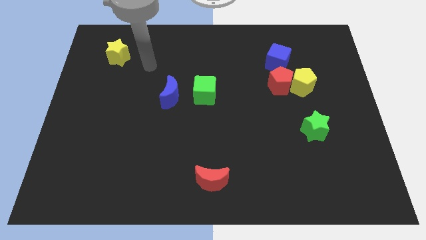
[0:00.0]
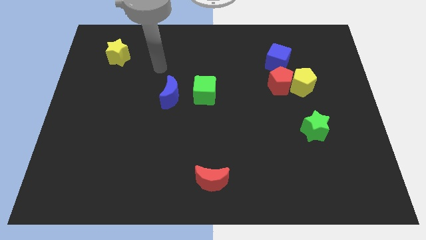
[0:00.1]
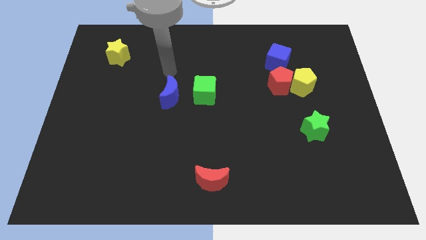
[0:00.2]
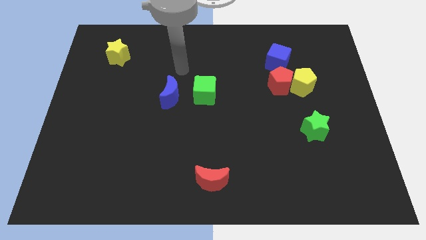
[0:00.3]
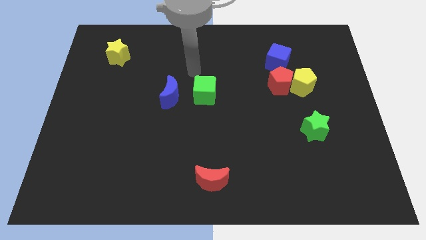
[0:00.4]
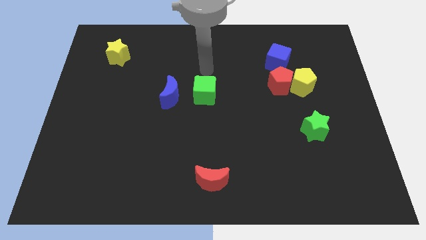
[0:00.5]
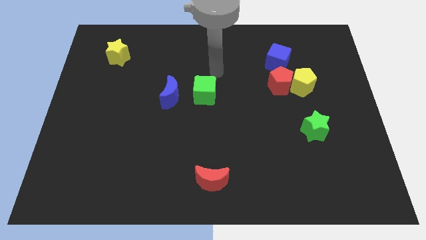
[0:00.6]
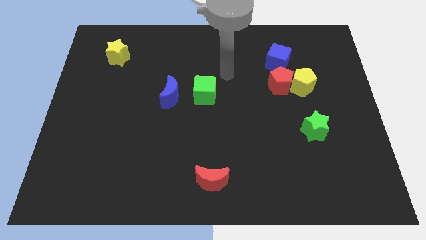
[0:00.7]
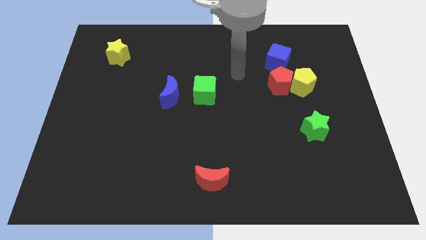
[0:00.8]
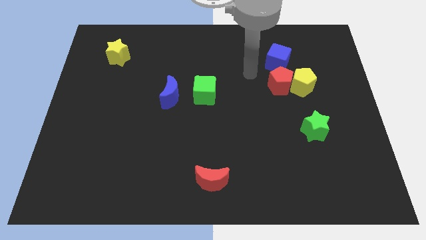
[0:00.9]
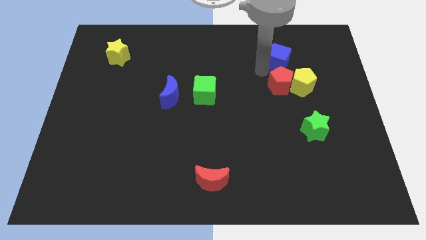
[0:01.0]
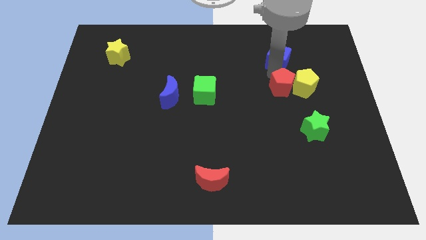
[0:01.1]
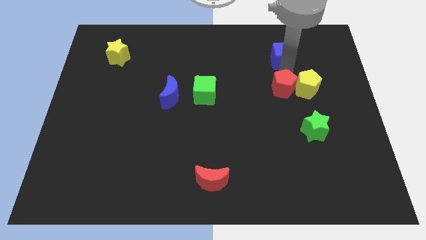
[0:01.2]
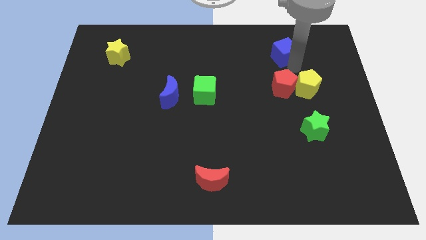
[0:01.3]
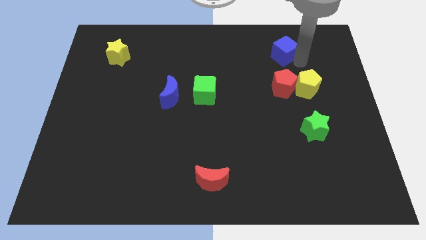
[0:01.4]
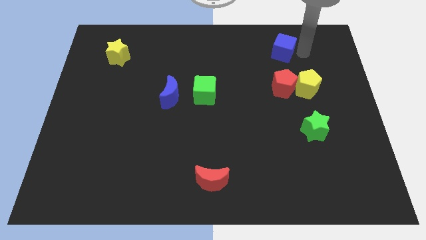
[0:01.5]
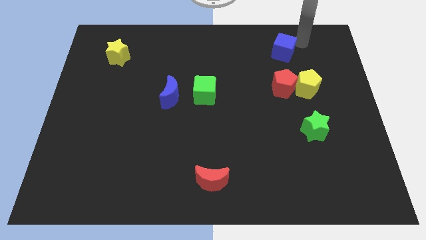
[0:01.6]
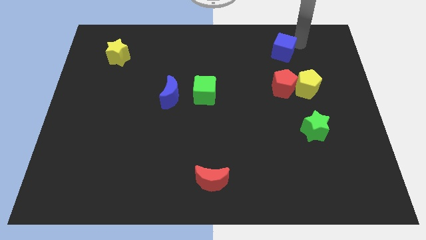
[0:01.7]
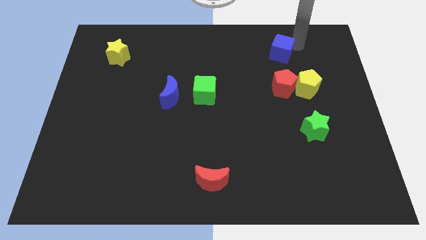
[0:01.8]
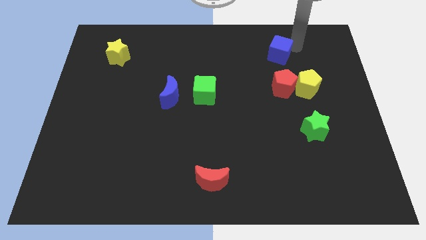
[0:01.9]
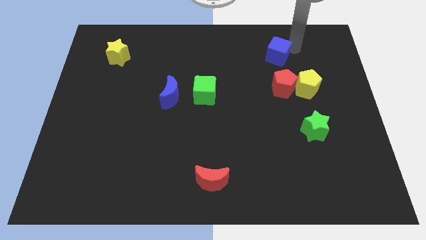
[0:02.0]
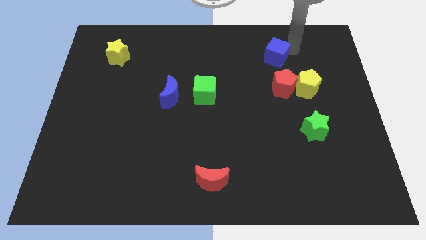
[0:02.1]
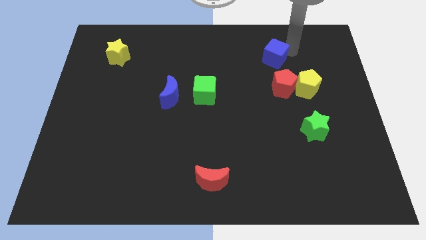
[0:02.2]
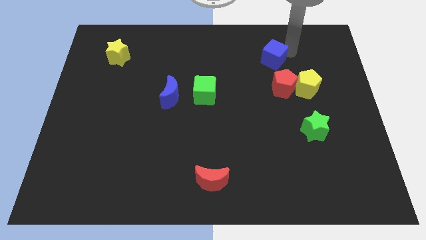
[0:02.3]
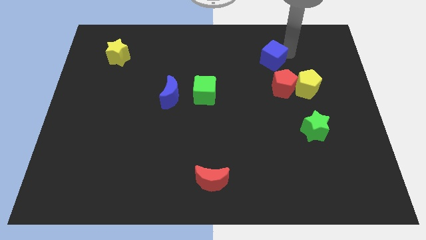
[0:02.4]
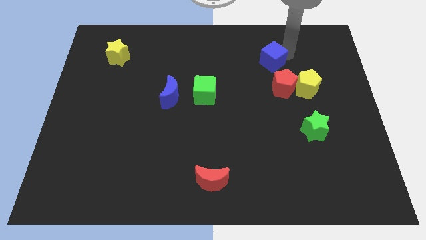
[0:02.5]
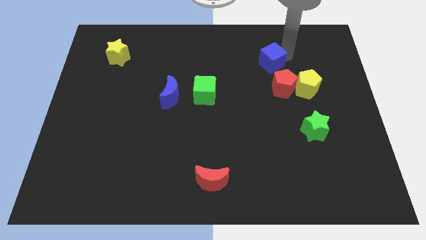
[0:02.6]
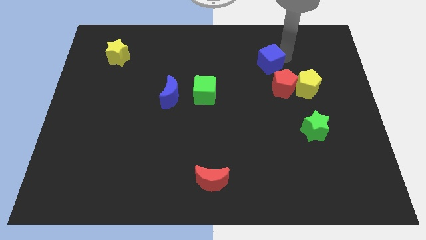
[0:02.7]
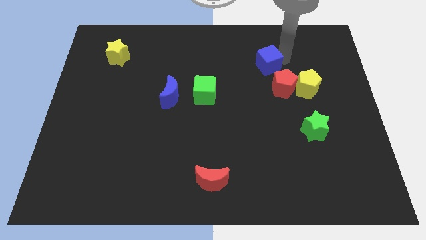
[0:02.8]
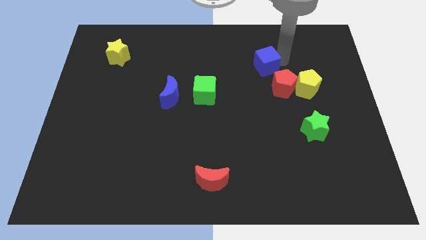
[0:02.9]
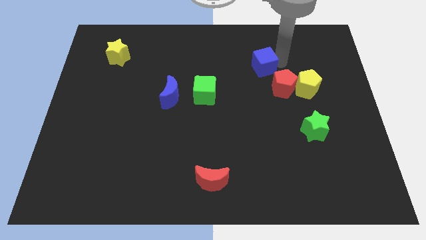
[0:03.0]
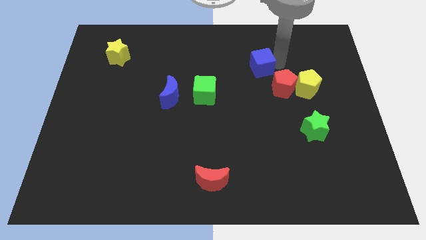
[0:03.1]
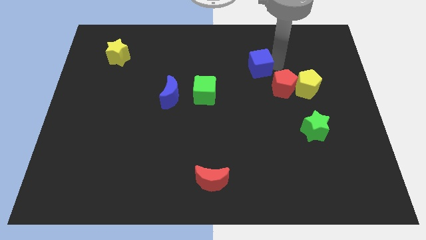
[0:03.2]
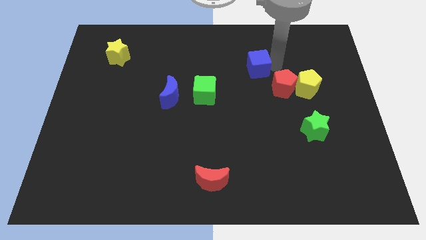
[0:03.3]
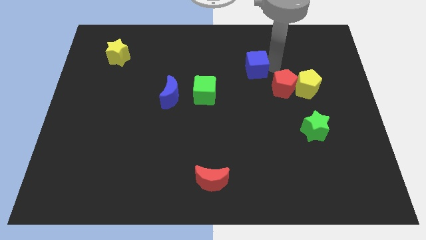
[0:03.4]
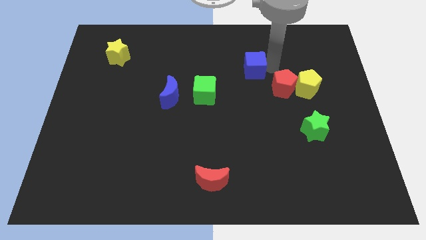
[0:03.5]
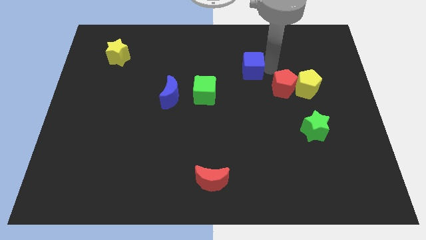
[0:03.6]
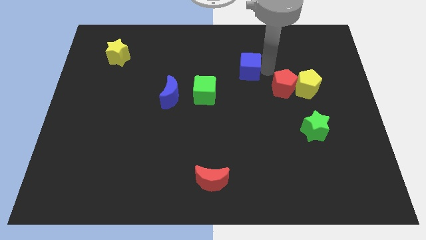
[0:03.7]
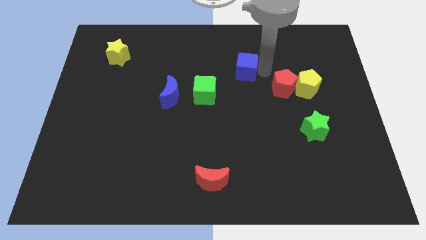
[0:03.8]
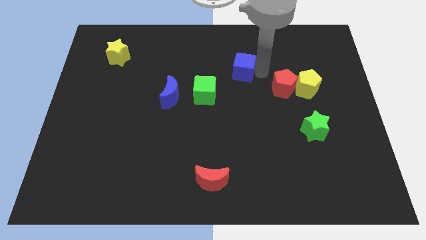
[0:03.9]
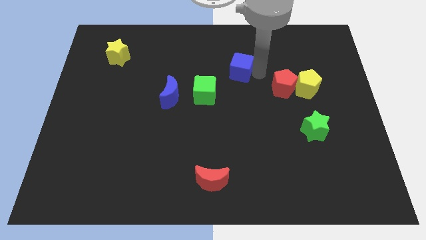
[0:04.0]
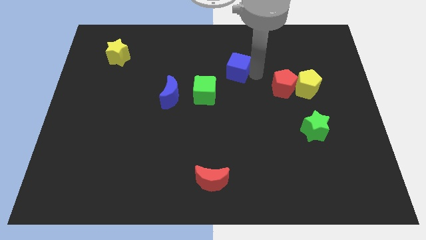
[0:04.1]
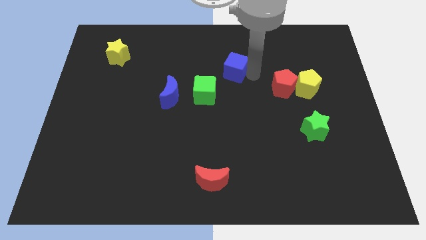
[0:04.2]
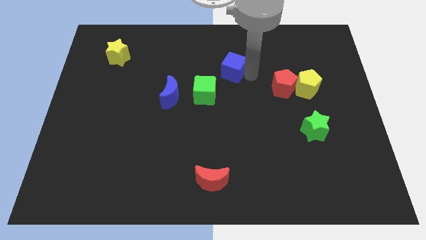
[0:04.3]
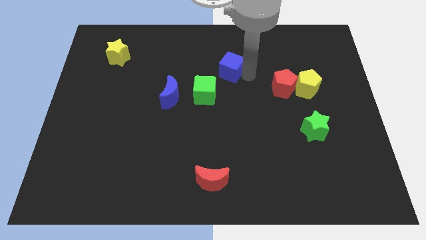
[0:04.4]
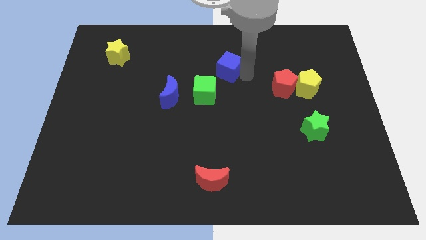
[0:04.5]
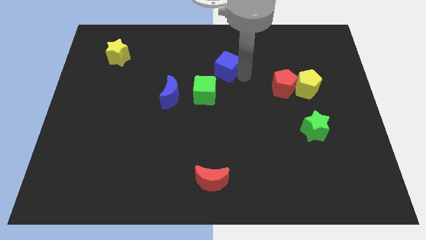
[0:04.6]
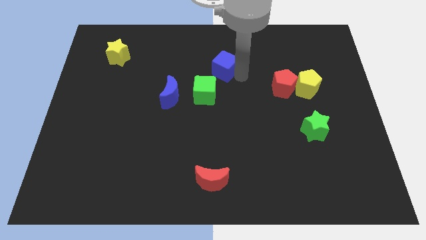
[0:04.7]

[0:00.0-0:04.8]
push the blue cube above the green cube

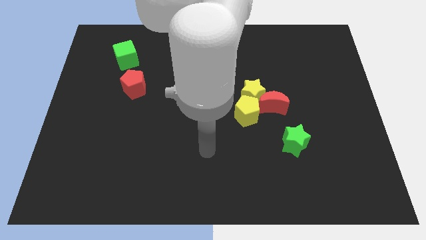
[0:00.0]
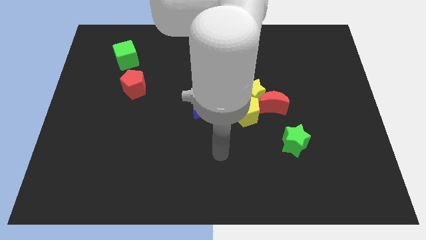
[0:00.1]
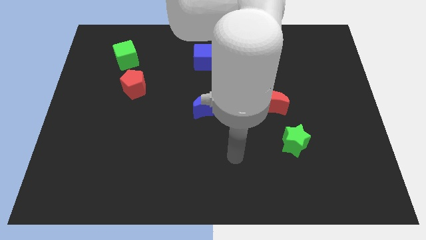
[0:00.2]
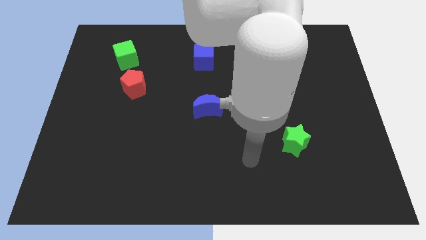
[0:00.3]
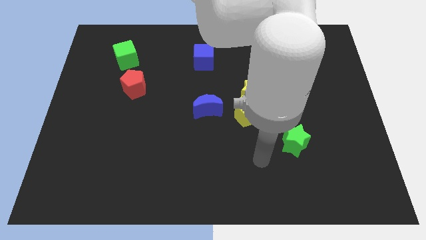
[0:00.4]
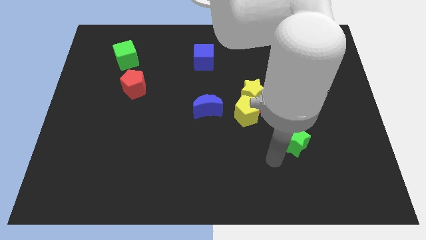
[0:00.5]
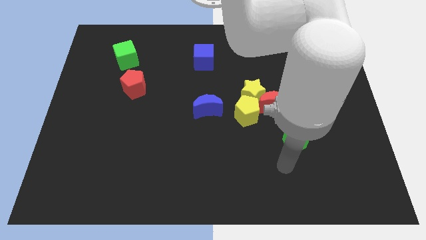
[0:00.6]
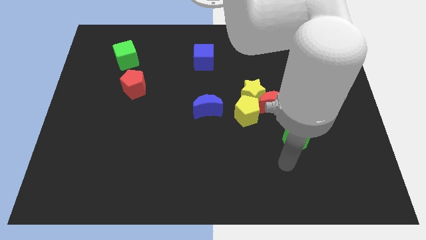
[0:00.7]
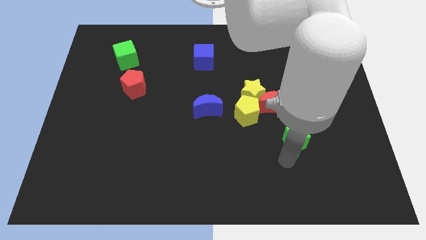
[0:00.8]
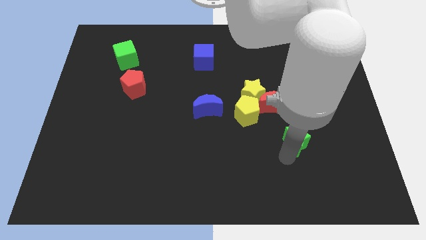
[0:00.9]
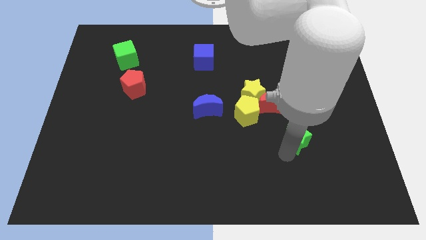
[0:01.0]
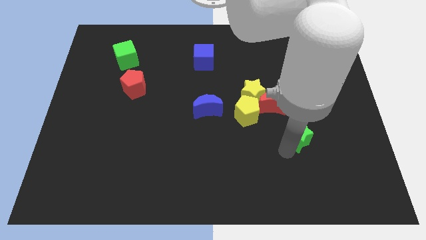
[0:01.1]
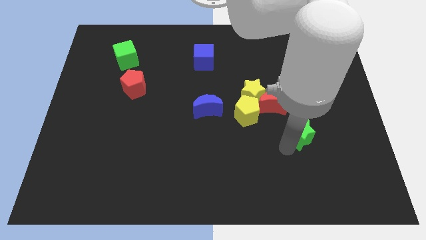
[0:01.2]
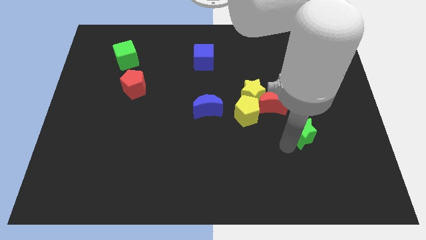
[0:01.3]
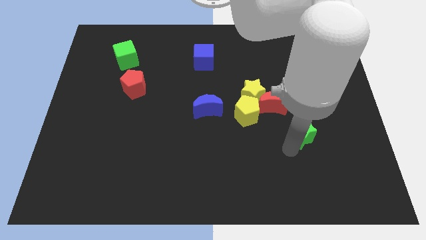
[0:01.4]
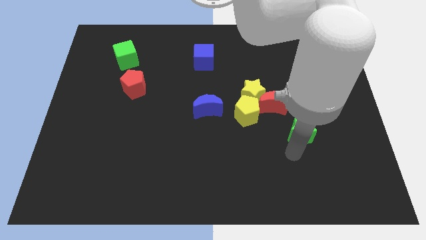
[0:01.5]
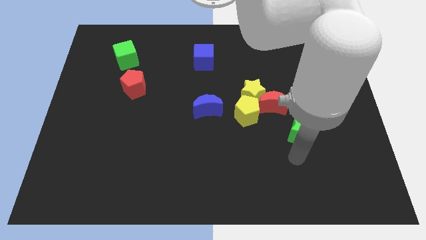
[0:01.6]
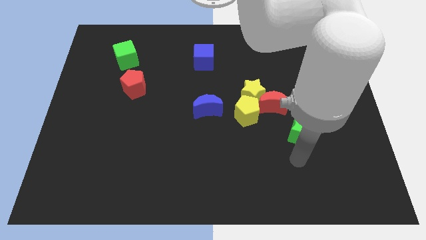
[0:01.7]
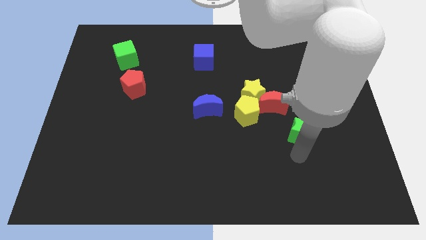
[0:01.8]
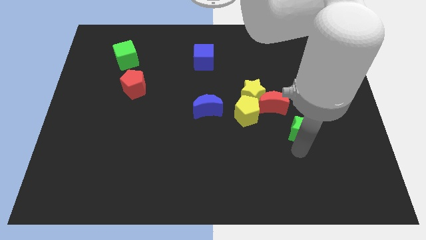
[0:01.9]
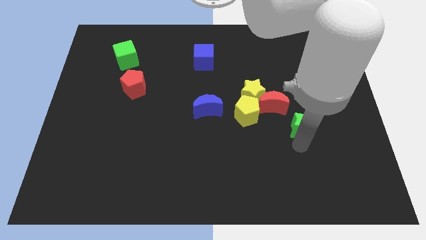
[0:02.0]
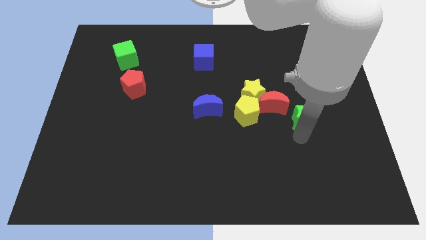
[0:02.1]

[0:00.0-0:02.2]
move the green star to the right side of the red moon
